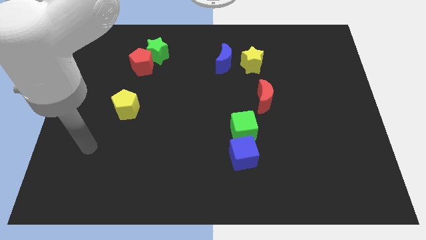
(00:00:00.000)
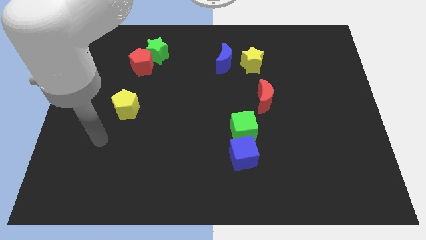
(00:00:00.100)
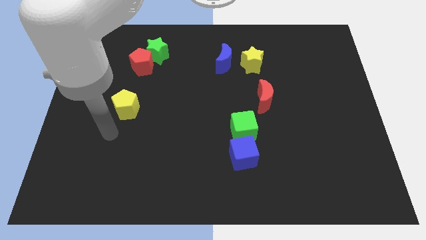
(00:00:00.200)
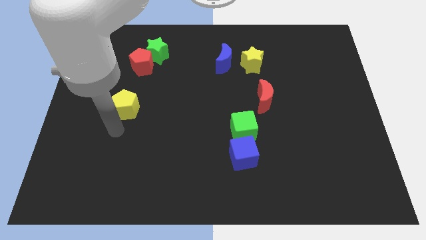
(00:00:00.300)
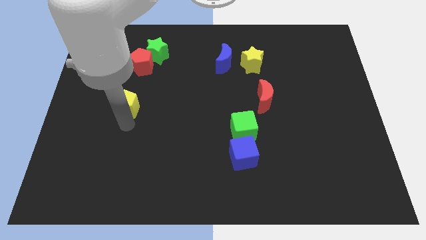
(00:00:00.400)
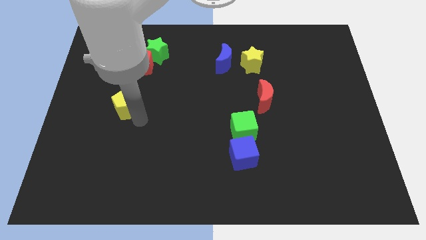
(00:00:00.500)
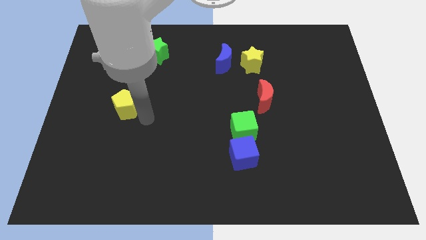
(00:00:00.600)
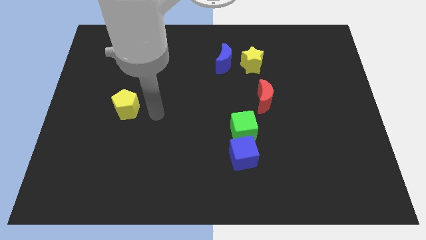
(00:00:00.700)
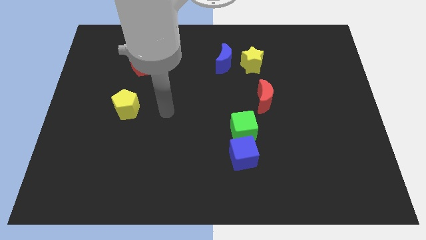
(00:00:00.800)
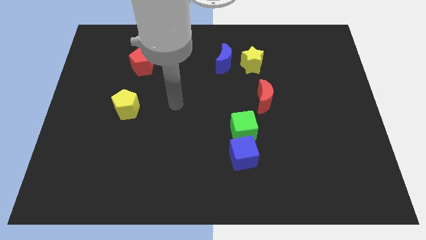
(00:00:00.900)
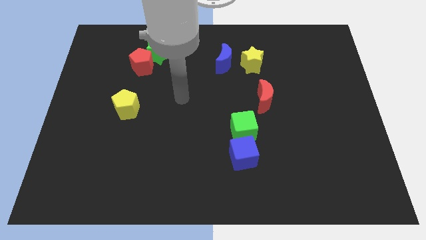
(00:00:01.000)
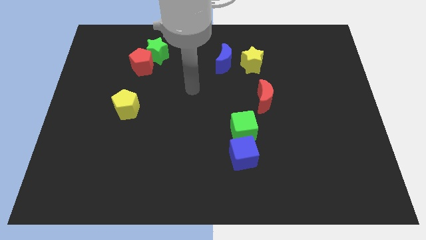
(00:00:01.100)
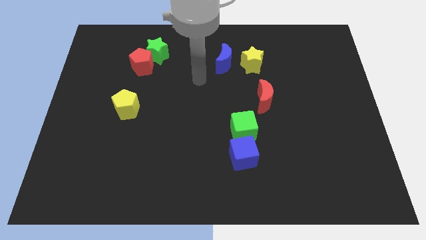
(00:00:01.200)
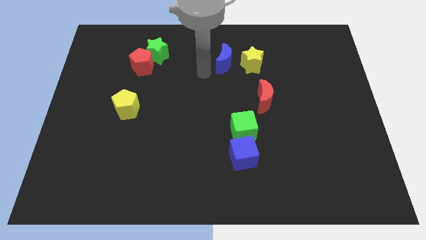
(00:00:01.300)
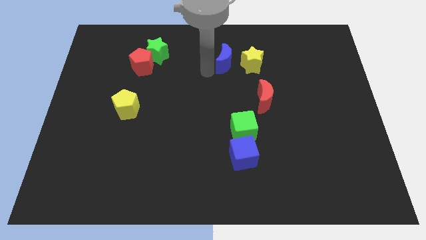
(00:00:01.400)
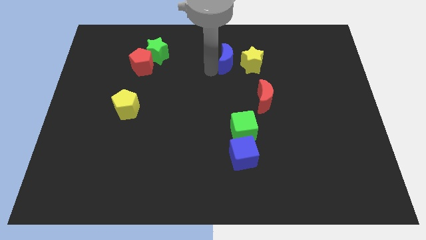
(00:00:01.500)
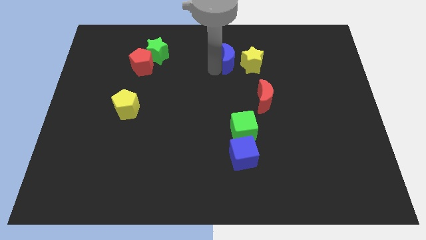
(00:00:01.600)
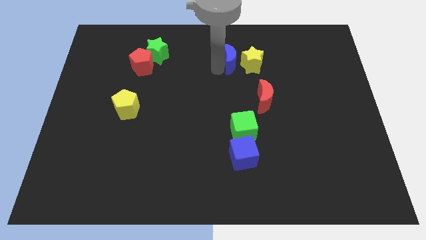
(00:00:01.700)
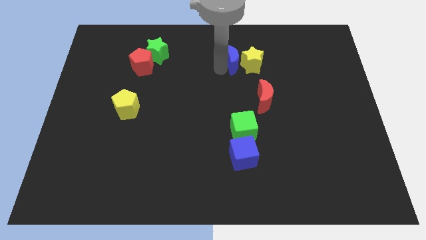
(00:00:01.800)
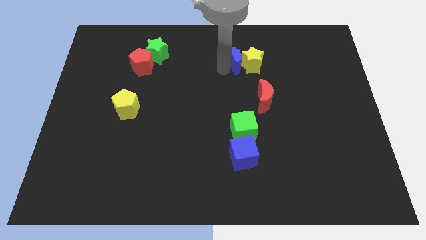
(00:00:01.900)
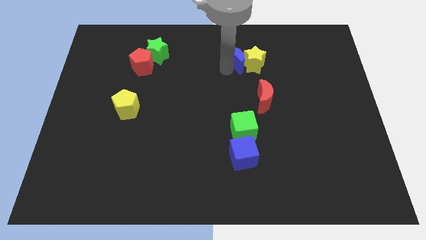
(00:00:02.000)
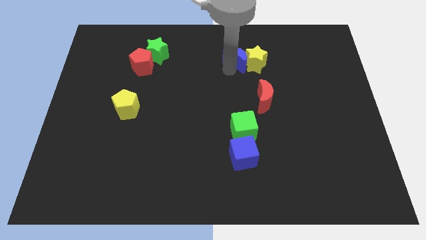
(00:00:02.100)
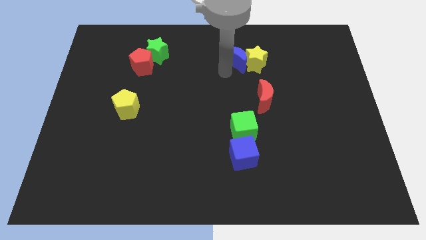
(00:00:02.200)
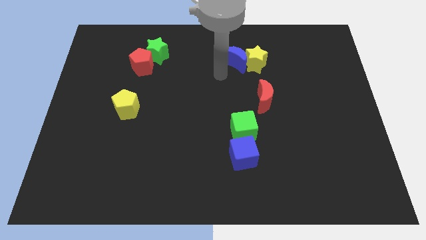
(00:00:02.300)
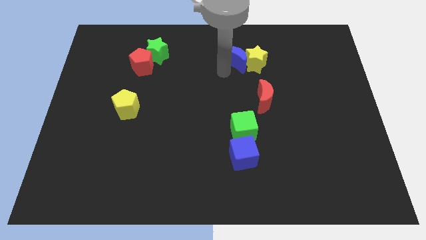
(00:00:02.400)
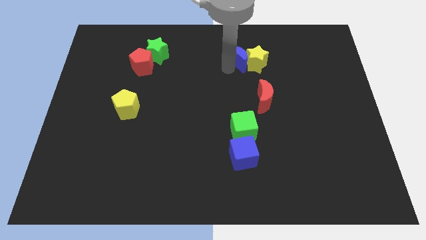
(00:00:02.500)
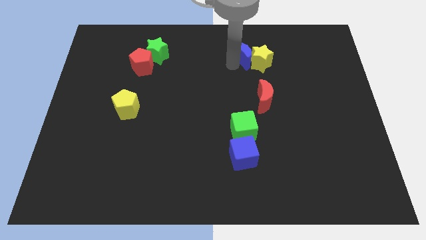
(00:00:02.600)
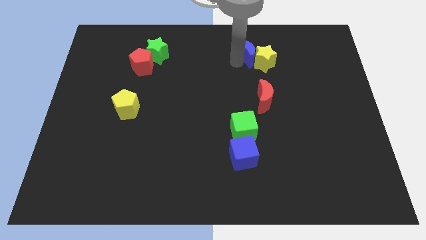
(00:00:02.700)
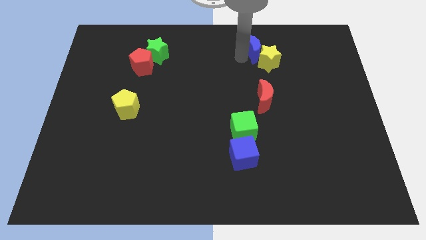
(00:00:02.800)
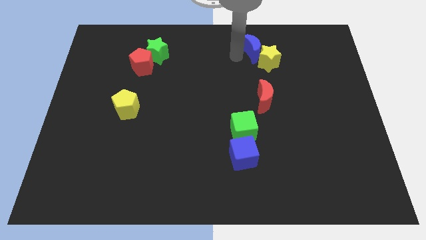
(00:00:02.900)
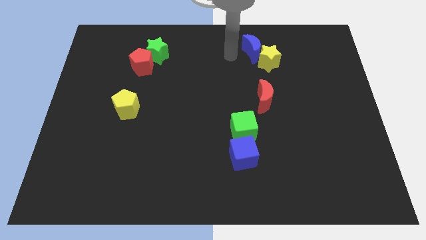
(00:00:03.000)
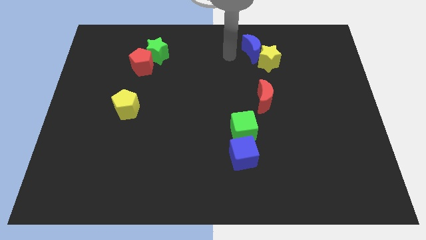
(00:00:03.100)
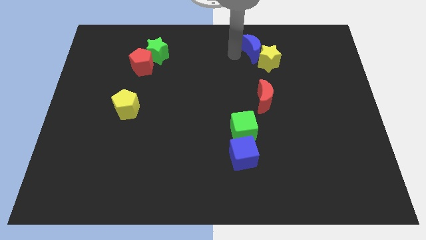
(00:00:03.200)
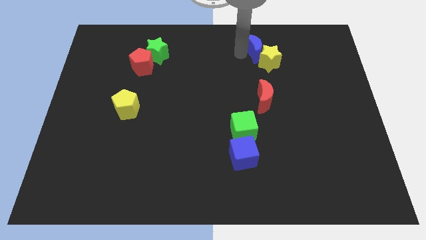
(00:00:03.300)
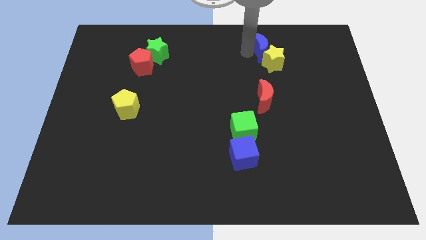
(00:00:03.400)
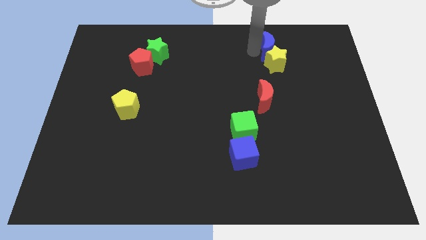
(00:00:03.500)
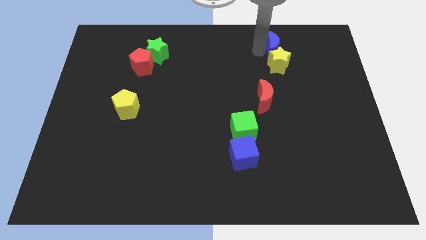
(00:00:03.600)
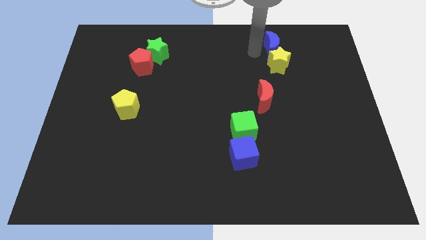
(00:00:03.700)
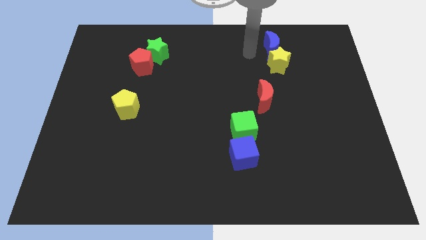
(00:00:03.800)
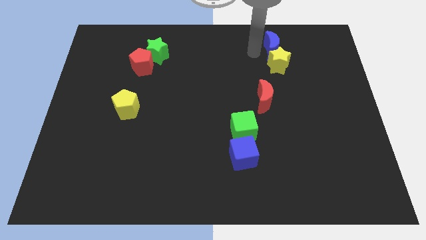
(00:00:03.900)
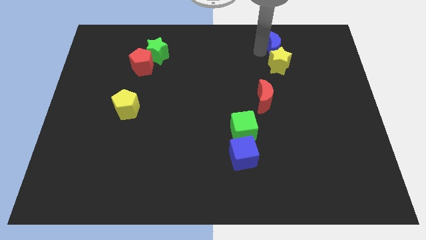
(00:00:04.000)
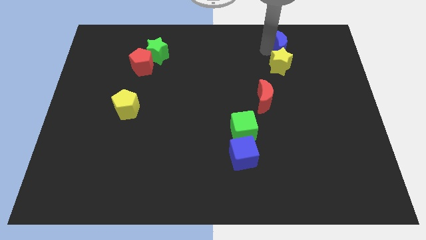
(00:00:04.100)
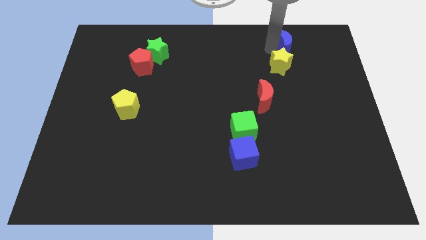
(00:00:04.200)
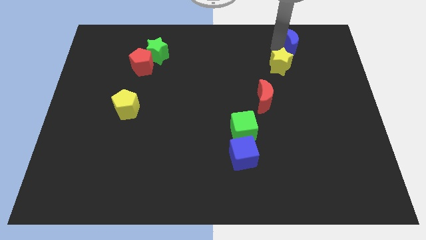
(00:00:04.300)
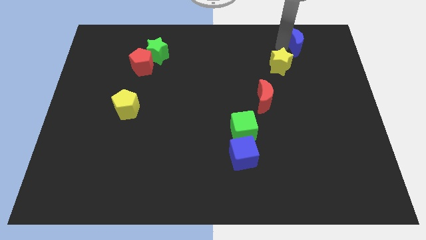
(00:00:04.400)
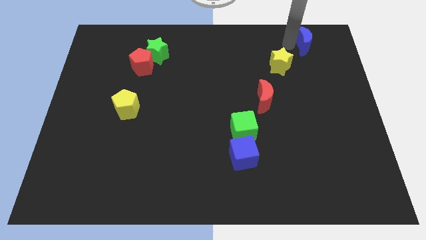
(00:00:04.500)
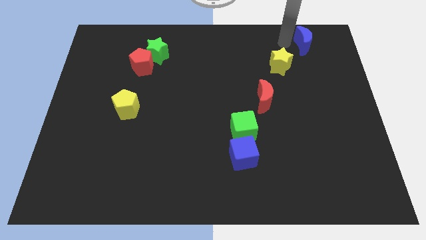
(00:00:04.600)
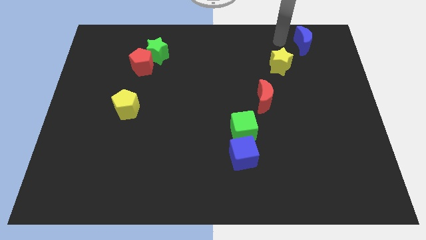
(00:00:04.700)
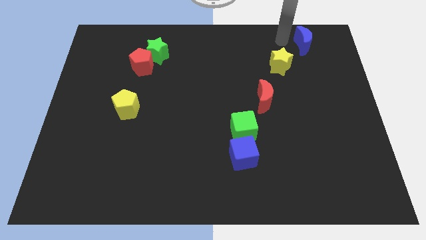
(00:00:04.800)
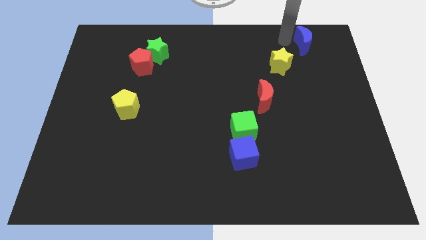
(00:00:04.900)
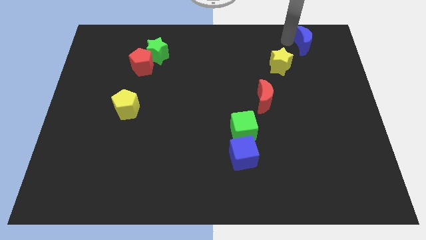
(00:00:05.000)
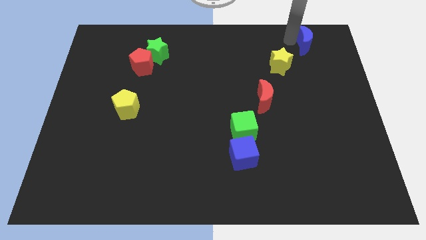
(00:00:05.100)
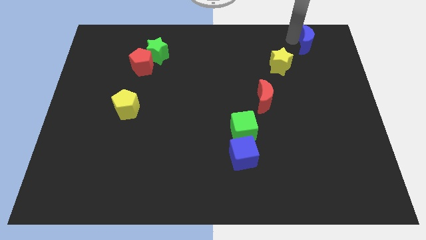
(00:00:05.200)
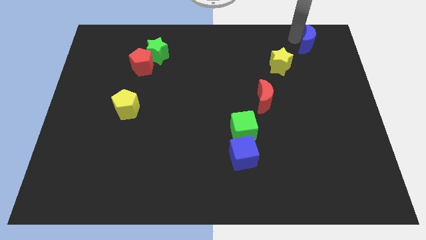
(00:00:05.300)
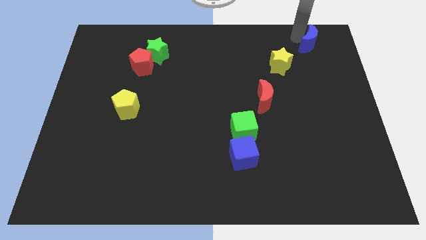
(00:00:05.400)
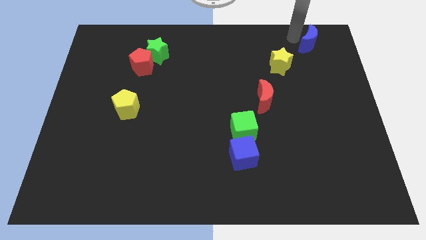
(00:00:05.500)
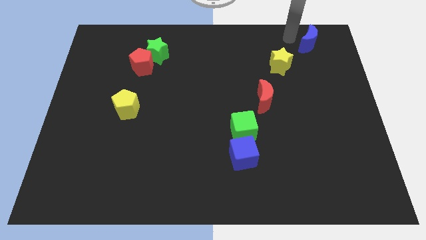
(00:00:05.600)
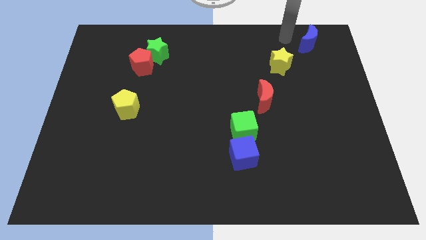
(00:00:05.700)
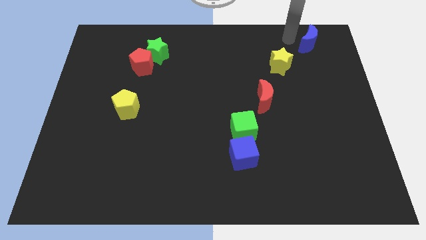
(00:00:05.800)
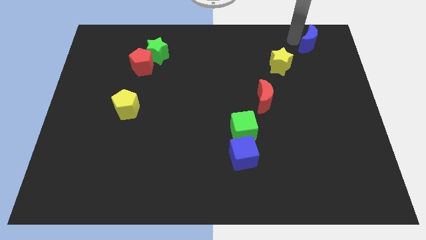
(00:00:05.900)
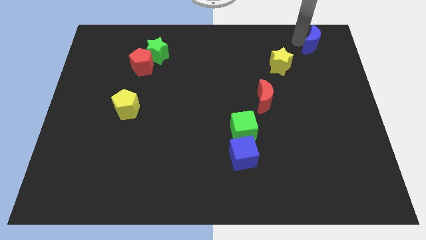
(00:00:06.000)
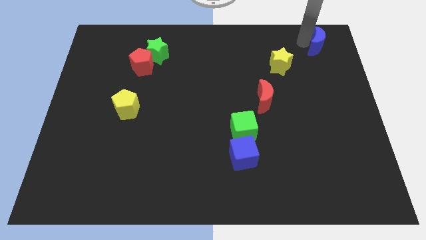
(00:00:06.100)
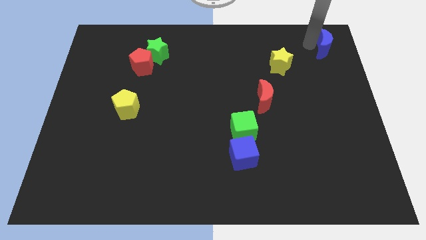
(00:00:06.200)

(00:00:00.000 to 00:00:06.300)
push the blue moon to the upper right corner
